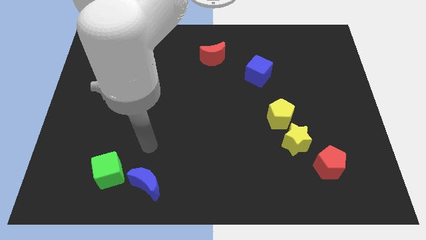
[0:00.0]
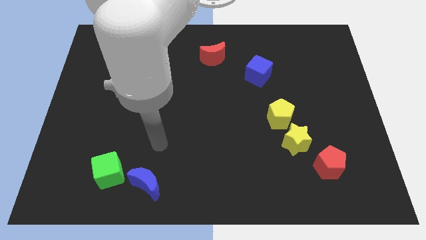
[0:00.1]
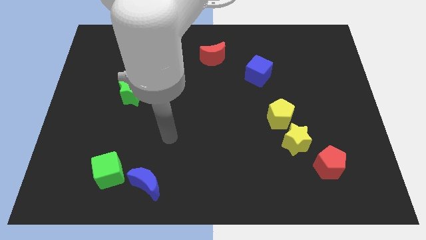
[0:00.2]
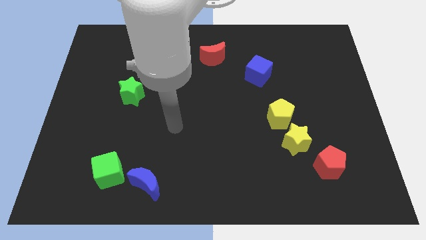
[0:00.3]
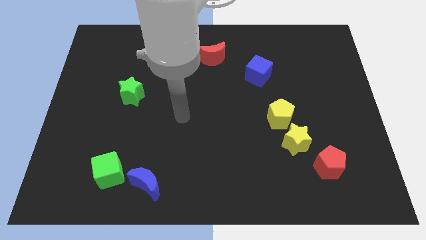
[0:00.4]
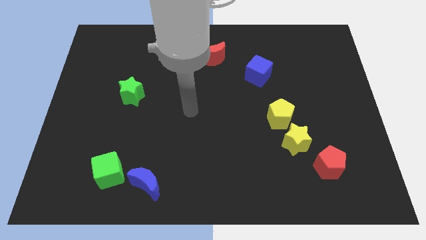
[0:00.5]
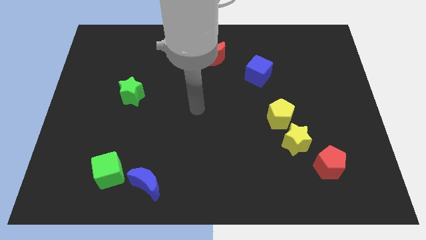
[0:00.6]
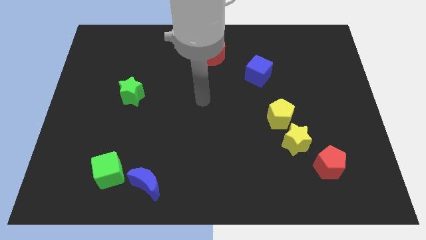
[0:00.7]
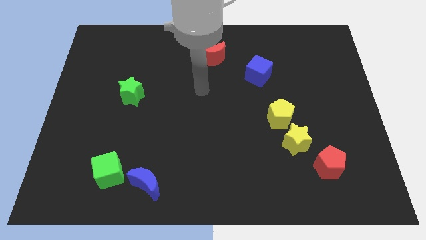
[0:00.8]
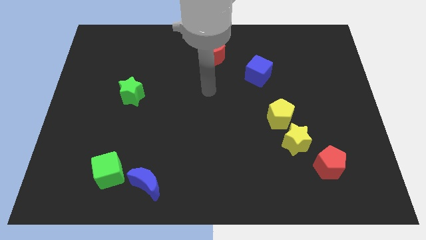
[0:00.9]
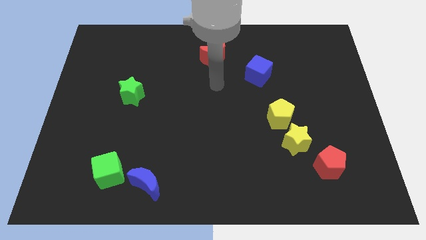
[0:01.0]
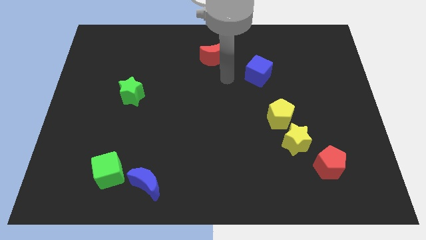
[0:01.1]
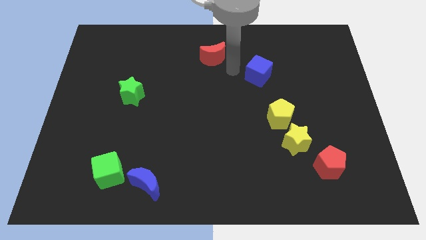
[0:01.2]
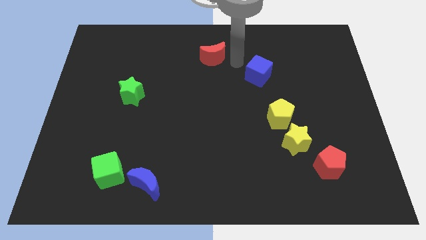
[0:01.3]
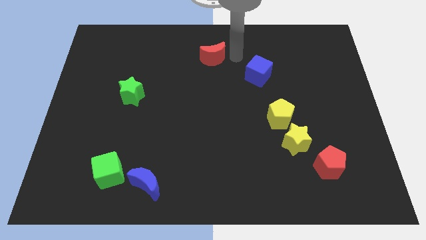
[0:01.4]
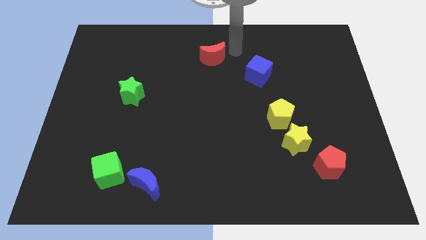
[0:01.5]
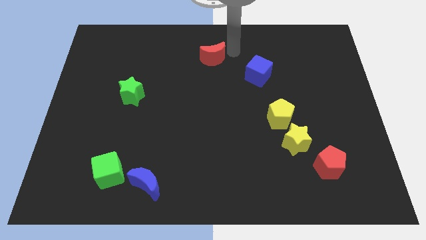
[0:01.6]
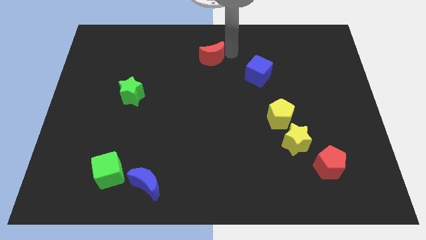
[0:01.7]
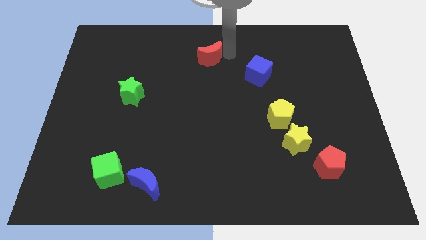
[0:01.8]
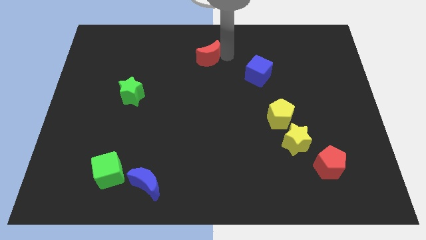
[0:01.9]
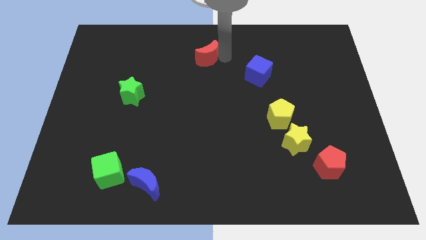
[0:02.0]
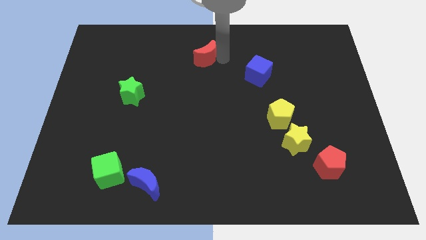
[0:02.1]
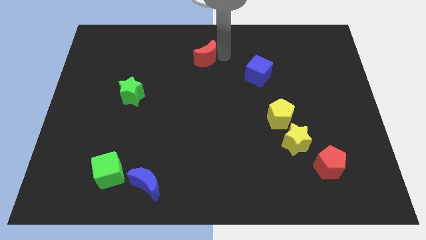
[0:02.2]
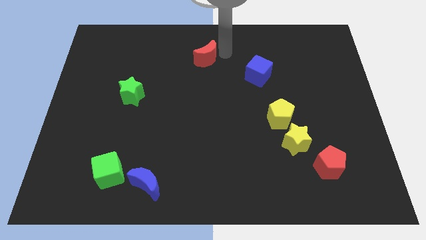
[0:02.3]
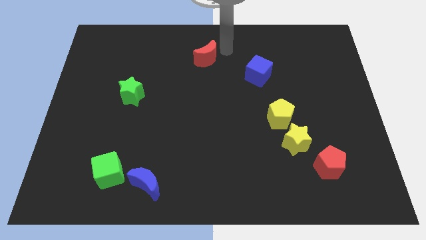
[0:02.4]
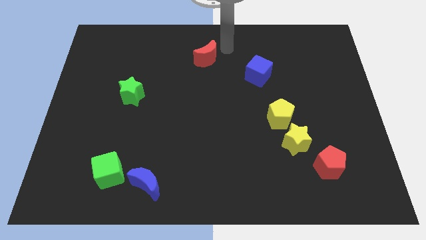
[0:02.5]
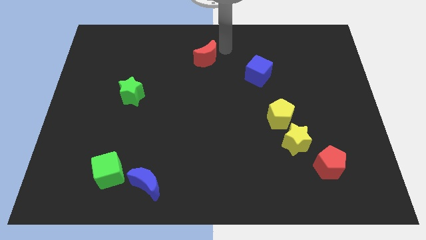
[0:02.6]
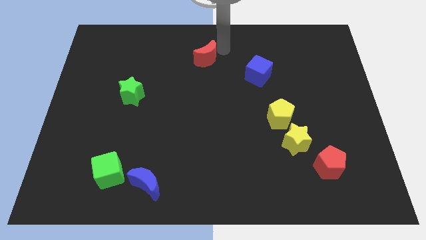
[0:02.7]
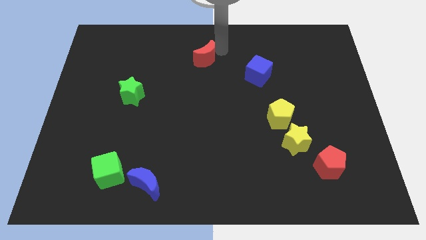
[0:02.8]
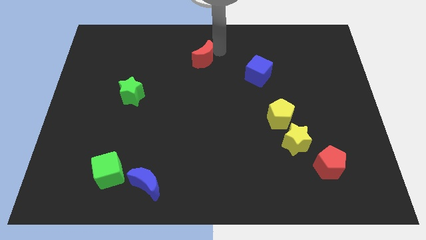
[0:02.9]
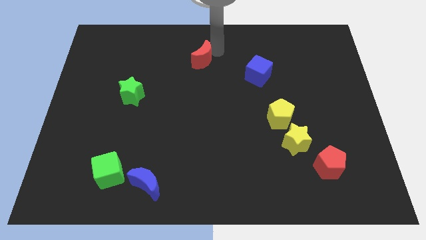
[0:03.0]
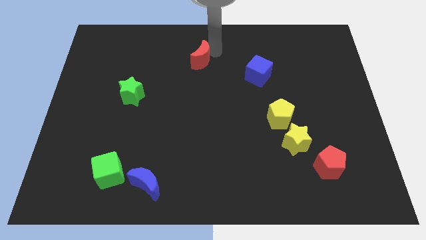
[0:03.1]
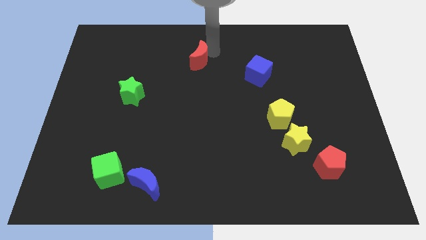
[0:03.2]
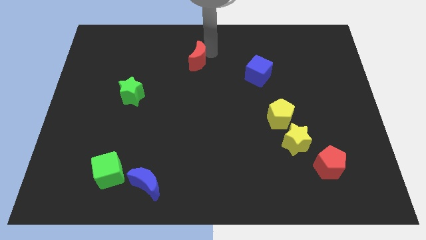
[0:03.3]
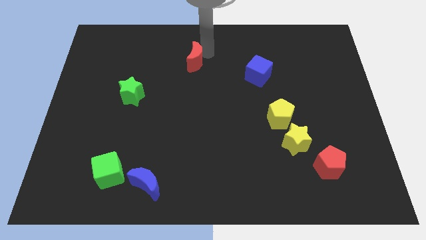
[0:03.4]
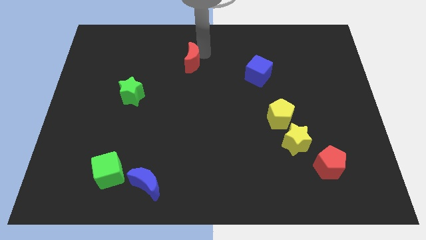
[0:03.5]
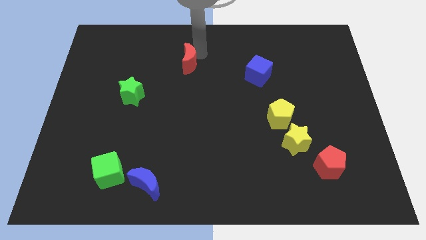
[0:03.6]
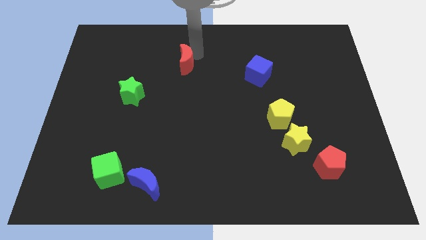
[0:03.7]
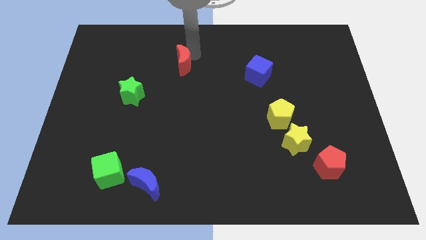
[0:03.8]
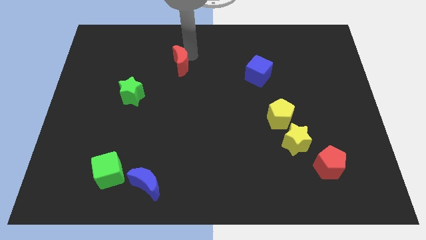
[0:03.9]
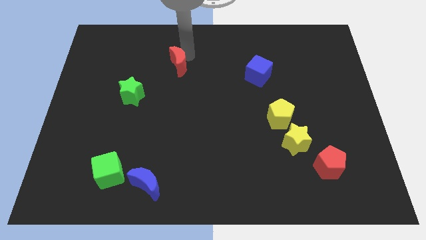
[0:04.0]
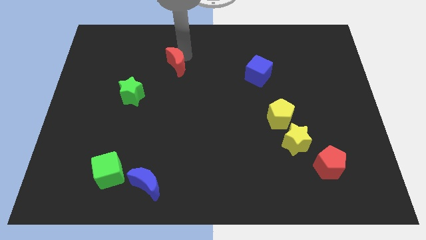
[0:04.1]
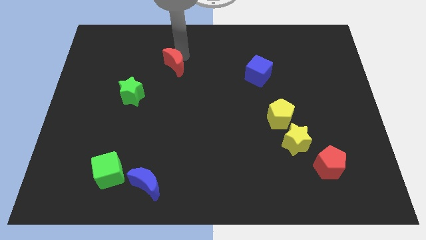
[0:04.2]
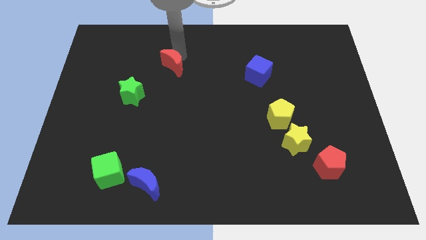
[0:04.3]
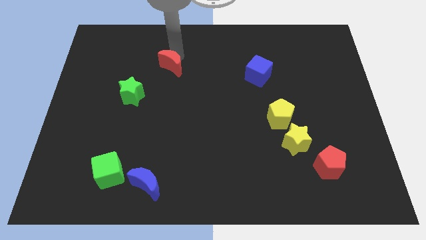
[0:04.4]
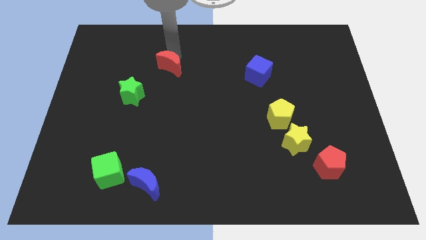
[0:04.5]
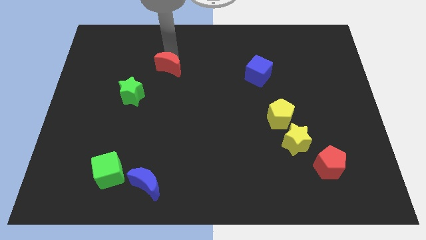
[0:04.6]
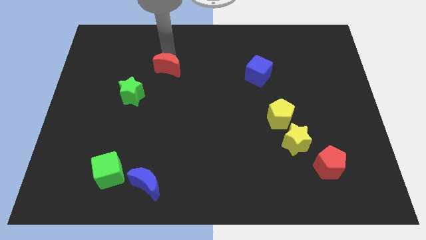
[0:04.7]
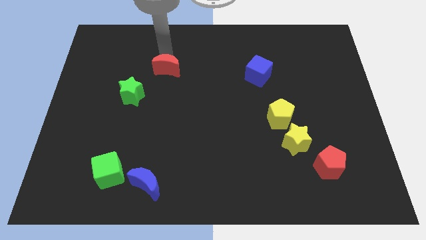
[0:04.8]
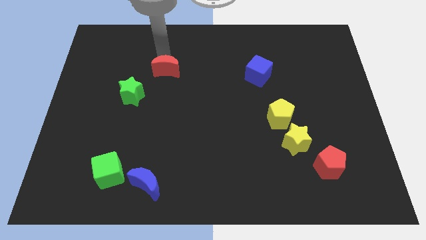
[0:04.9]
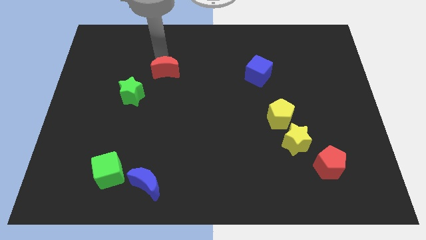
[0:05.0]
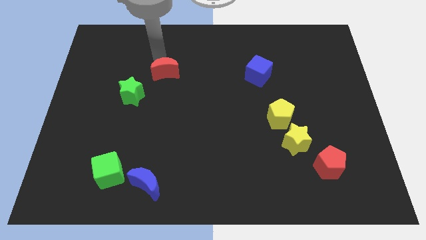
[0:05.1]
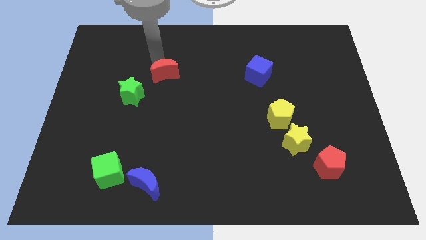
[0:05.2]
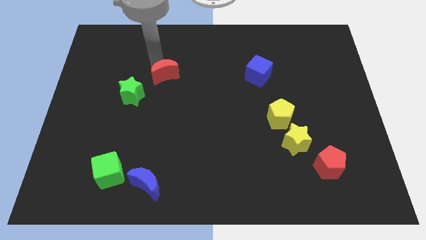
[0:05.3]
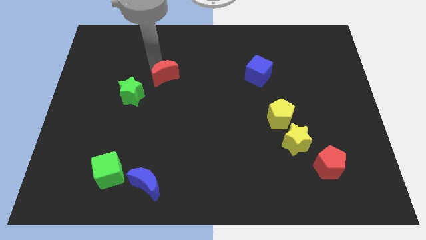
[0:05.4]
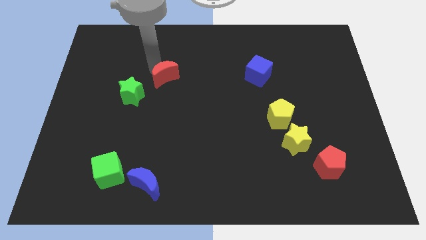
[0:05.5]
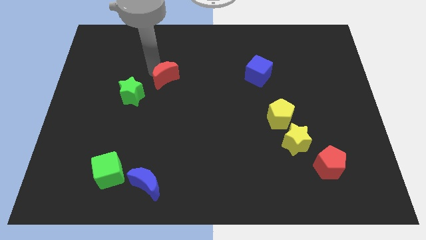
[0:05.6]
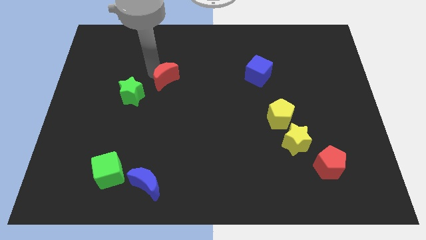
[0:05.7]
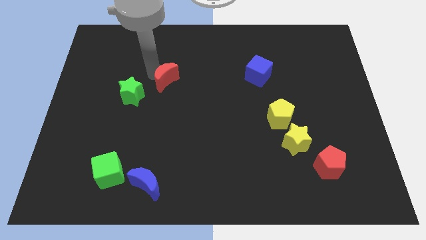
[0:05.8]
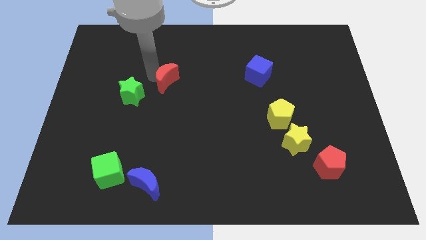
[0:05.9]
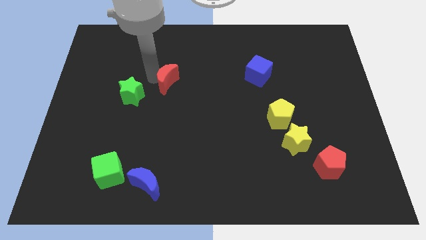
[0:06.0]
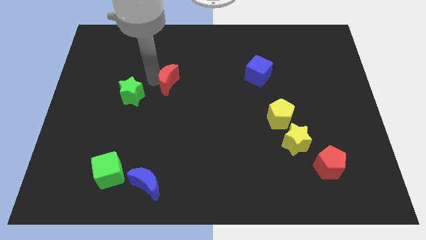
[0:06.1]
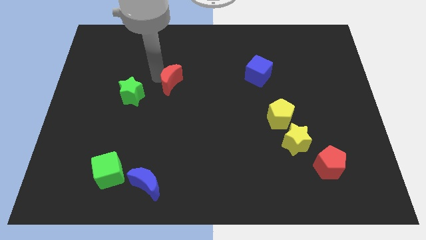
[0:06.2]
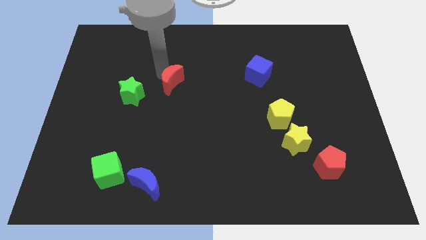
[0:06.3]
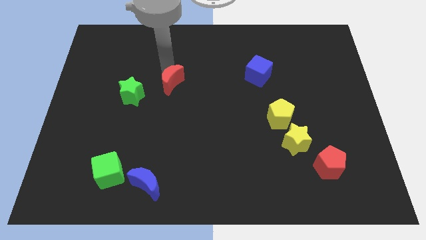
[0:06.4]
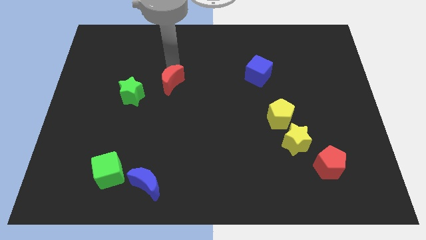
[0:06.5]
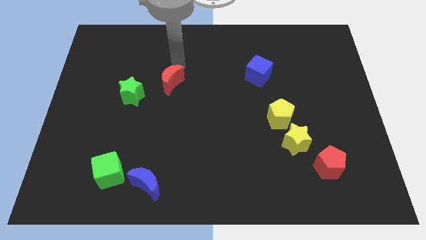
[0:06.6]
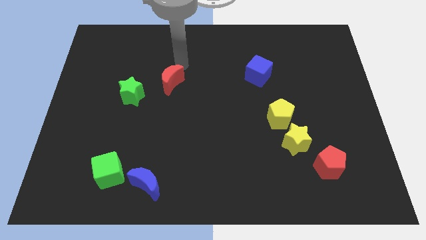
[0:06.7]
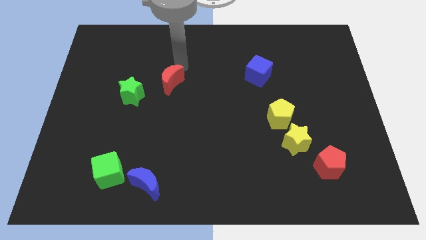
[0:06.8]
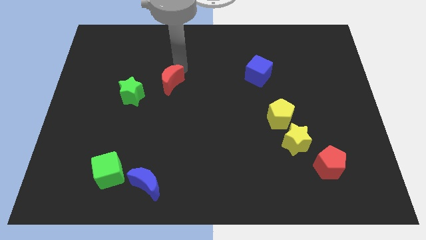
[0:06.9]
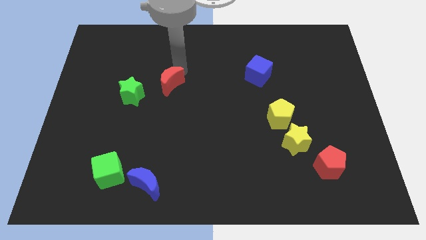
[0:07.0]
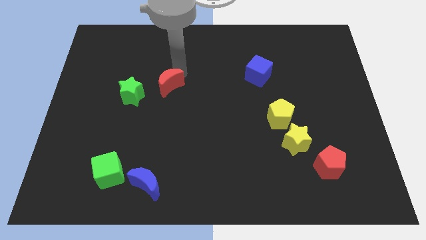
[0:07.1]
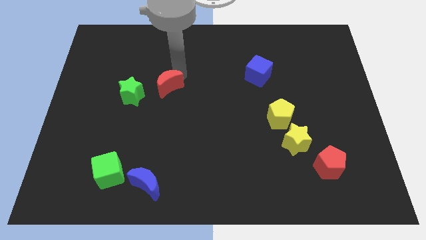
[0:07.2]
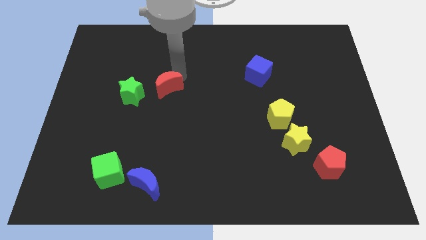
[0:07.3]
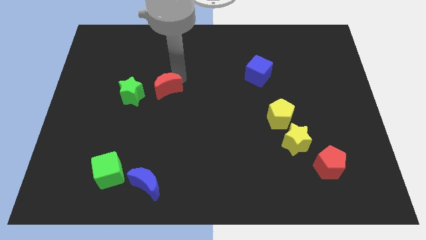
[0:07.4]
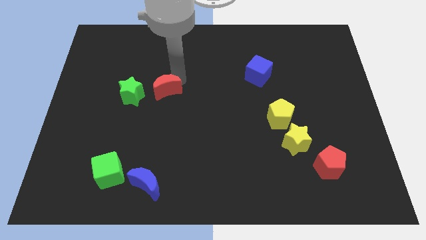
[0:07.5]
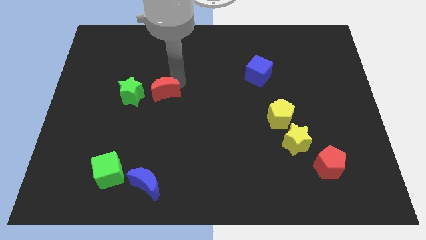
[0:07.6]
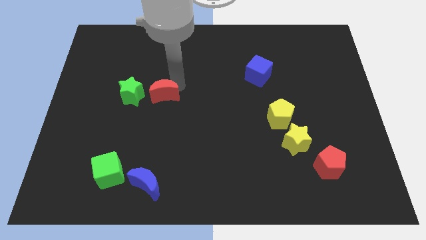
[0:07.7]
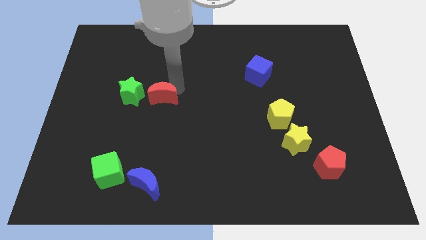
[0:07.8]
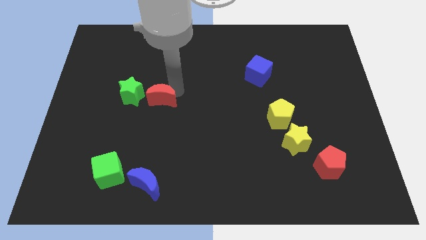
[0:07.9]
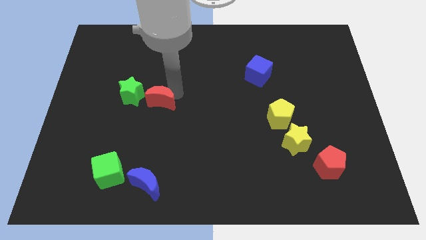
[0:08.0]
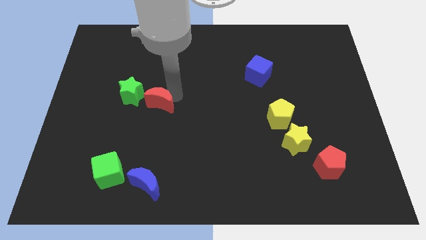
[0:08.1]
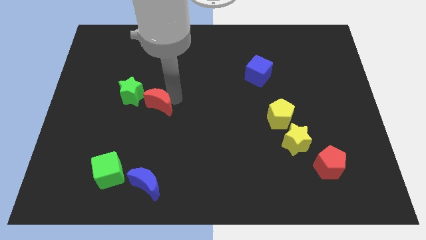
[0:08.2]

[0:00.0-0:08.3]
push the red moon downwards and then to the left
